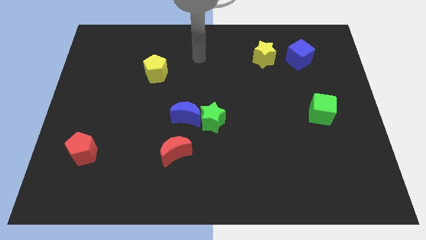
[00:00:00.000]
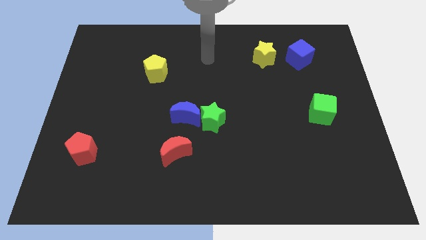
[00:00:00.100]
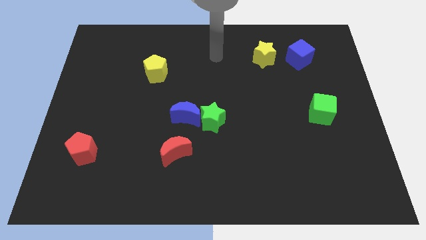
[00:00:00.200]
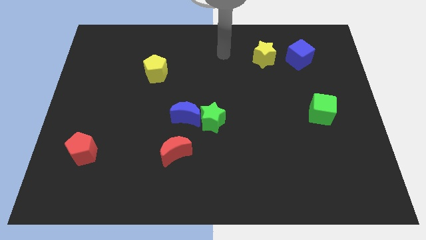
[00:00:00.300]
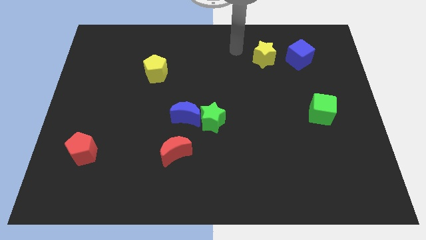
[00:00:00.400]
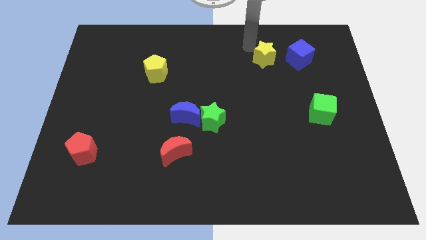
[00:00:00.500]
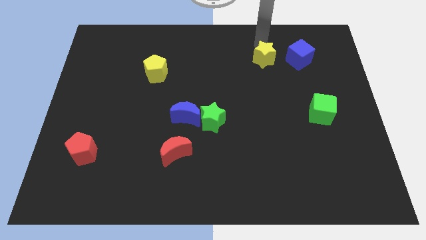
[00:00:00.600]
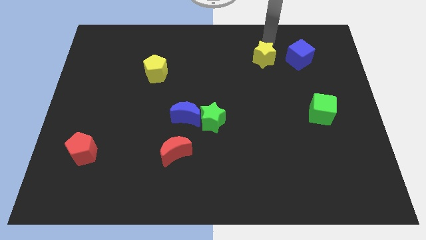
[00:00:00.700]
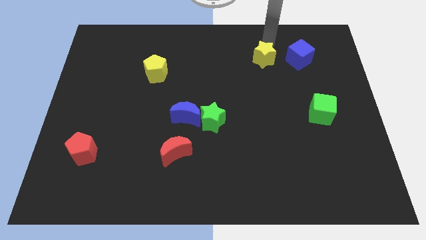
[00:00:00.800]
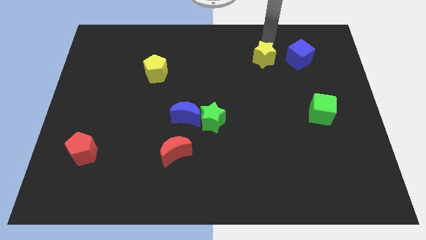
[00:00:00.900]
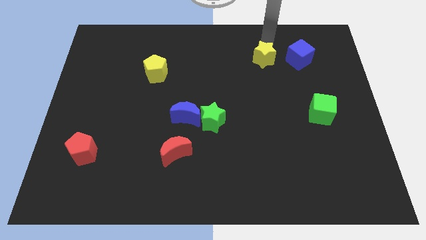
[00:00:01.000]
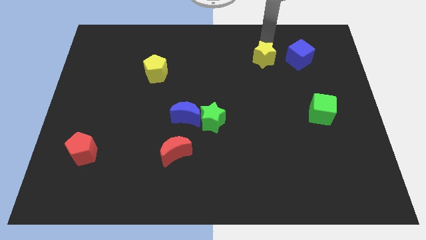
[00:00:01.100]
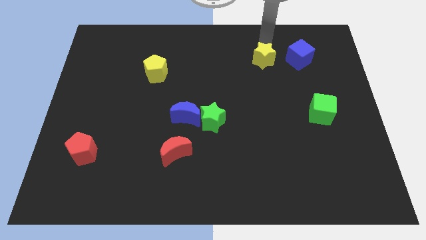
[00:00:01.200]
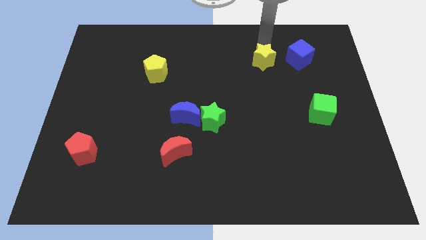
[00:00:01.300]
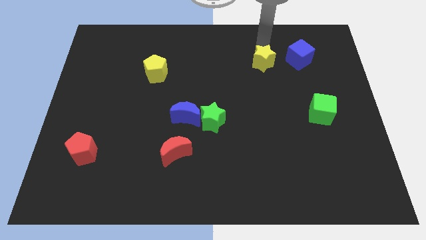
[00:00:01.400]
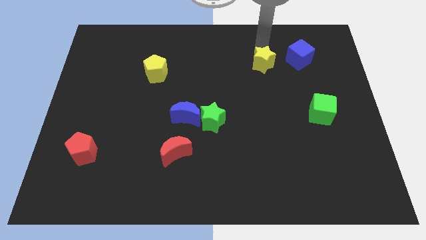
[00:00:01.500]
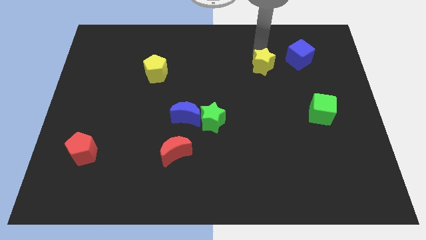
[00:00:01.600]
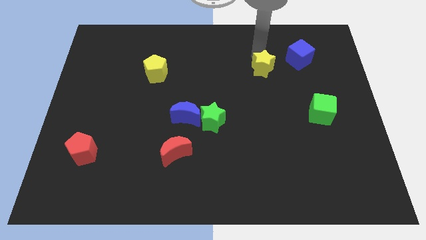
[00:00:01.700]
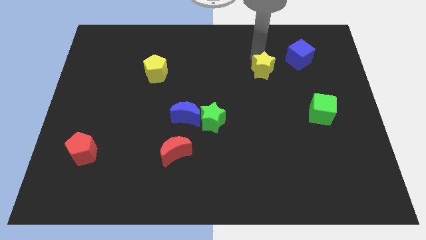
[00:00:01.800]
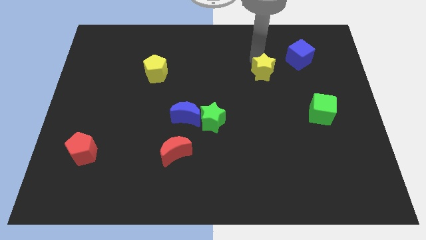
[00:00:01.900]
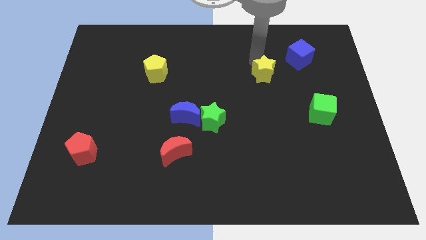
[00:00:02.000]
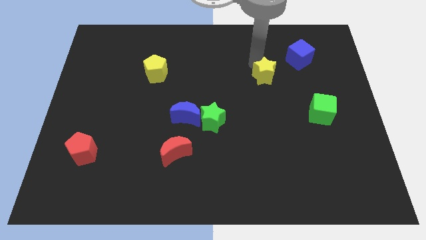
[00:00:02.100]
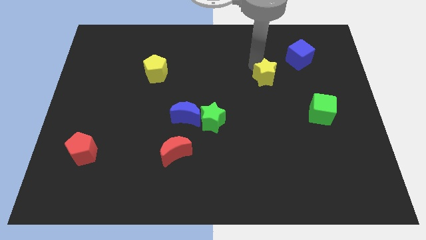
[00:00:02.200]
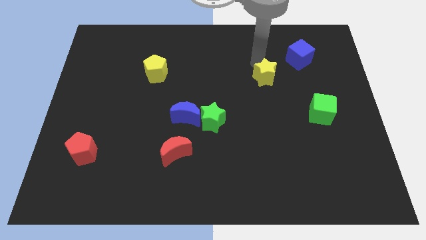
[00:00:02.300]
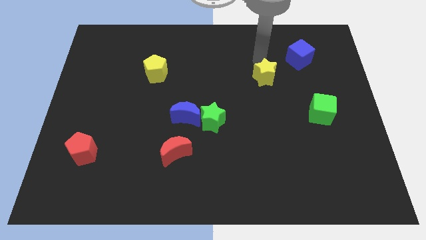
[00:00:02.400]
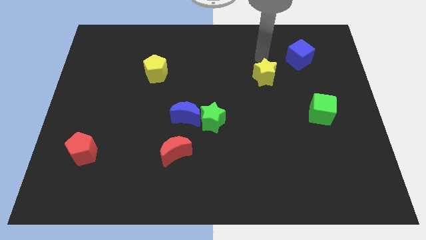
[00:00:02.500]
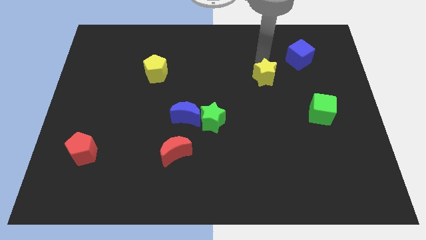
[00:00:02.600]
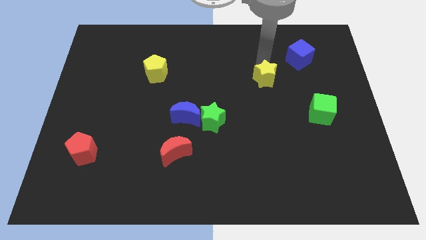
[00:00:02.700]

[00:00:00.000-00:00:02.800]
slide the yellow star down somewhat

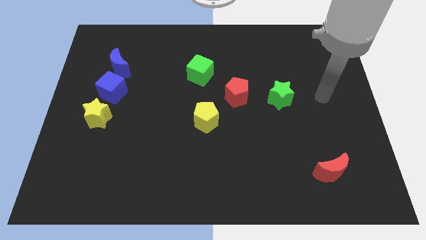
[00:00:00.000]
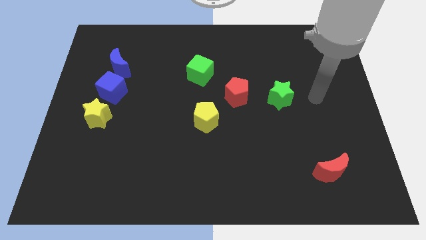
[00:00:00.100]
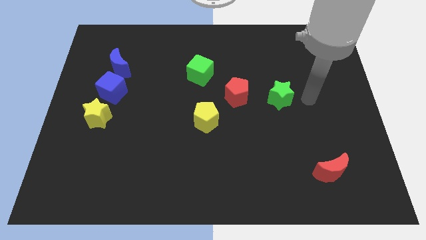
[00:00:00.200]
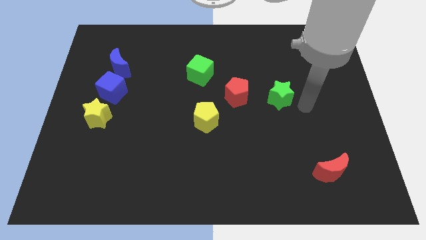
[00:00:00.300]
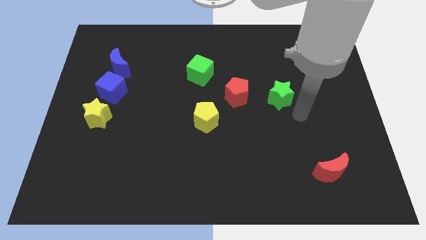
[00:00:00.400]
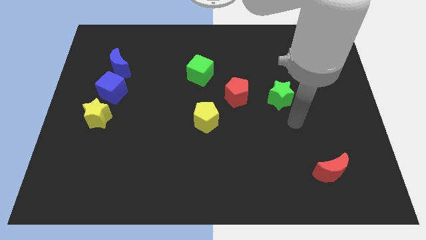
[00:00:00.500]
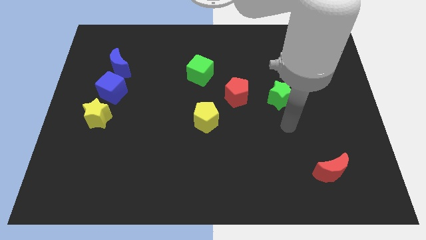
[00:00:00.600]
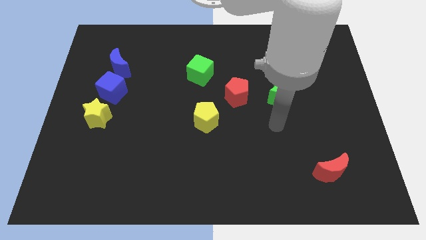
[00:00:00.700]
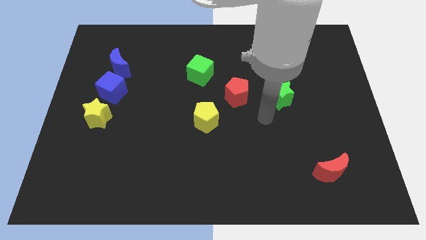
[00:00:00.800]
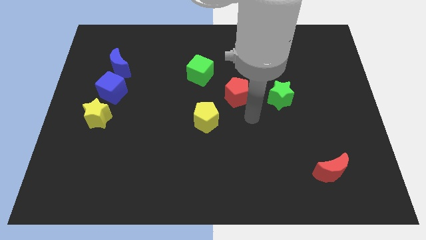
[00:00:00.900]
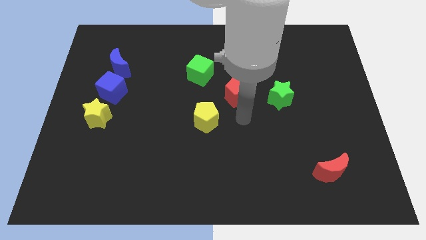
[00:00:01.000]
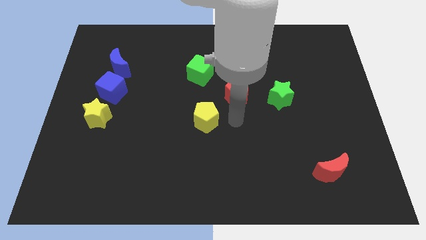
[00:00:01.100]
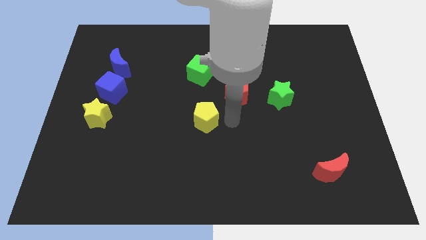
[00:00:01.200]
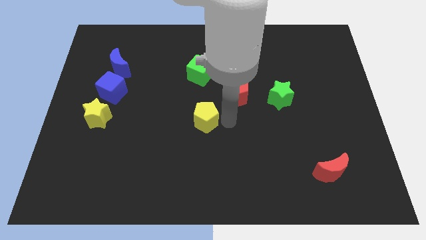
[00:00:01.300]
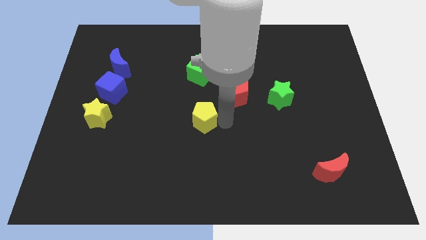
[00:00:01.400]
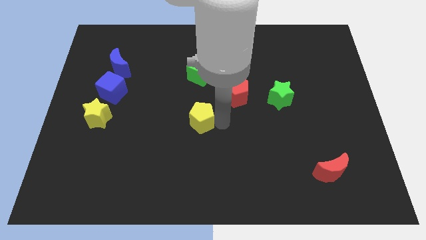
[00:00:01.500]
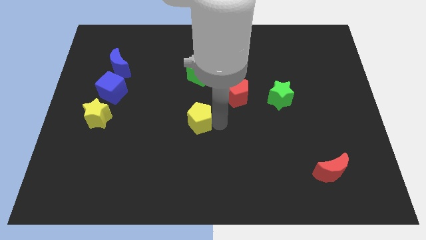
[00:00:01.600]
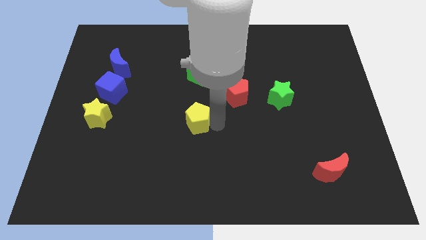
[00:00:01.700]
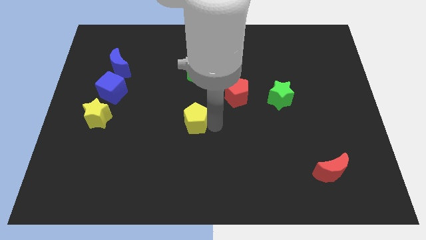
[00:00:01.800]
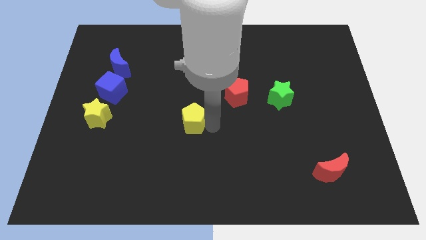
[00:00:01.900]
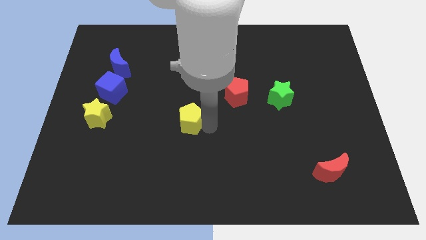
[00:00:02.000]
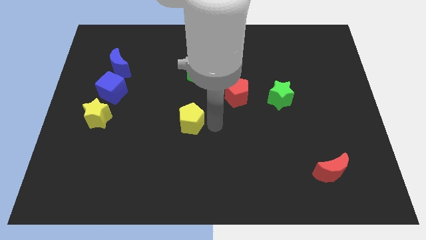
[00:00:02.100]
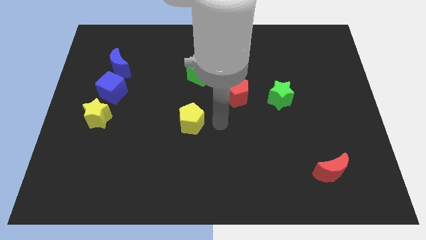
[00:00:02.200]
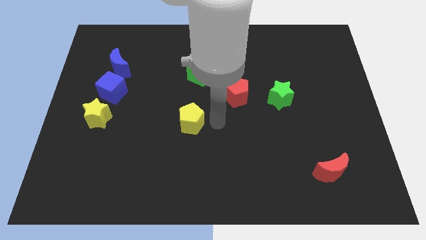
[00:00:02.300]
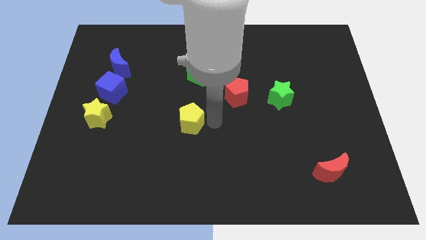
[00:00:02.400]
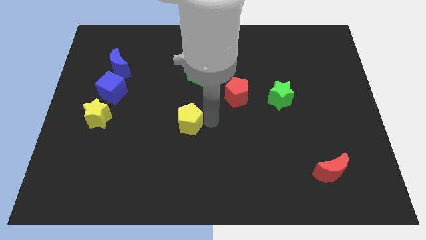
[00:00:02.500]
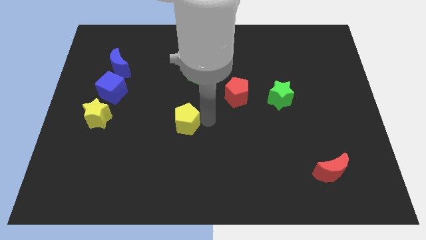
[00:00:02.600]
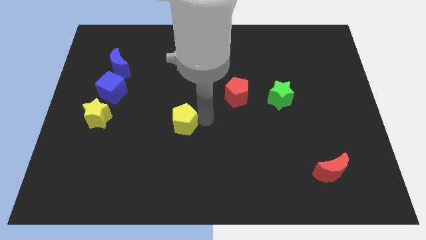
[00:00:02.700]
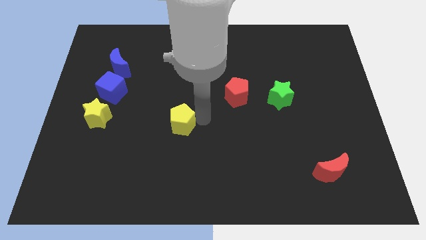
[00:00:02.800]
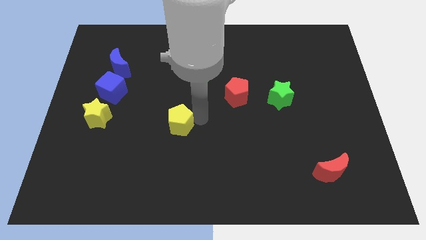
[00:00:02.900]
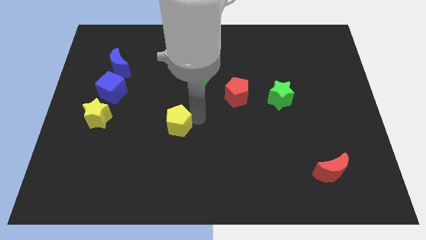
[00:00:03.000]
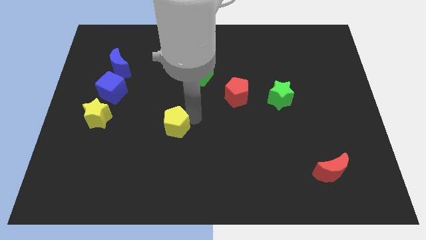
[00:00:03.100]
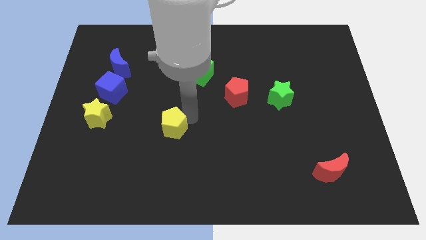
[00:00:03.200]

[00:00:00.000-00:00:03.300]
push the yellow pentagon a little bit left

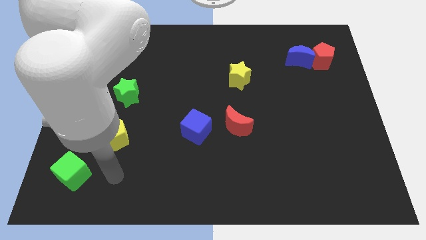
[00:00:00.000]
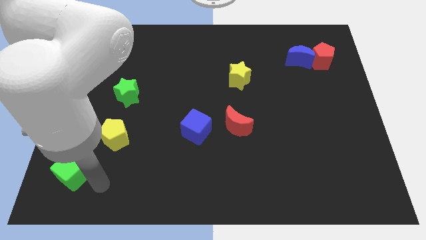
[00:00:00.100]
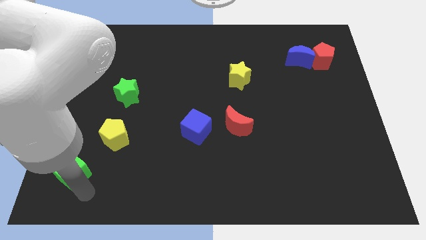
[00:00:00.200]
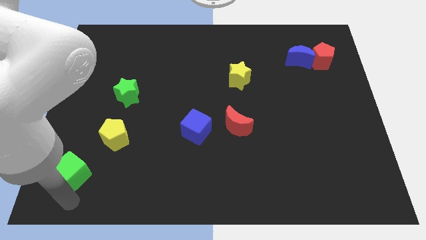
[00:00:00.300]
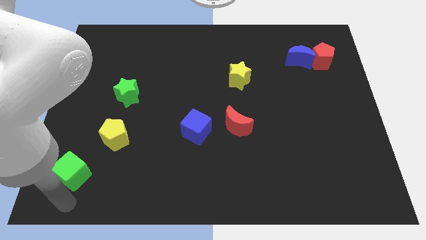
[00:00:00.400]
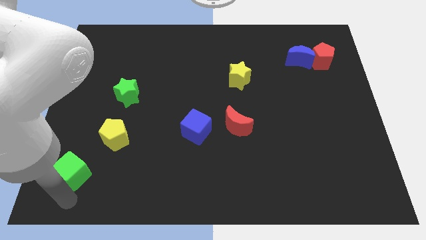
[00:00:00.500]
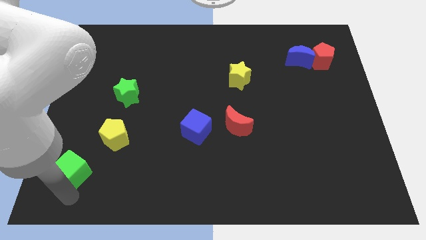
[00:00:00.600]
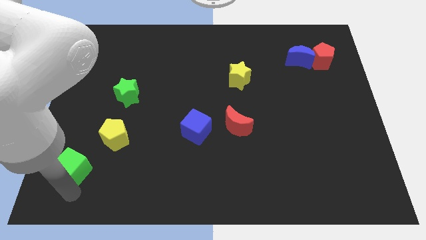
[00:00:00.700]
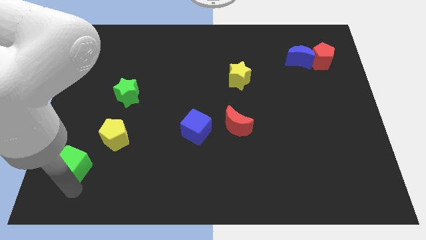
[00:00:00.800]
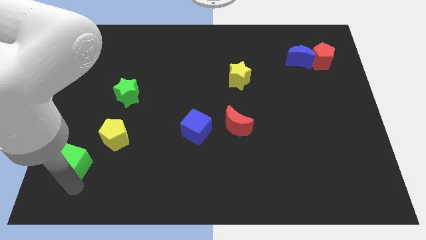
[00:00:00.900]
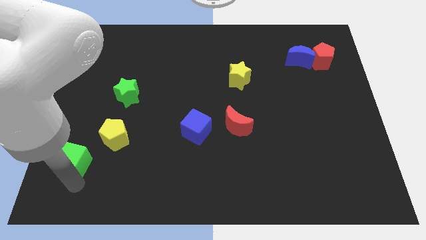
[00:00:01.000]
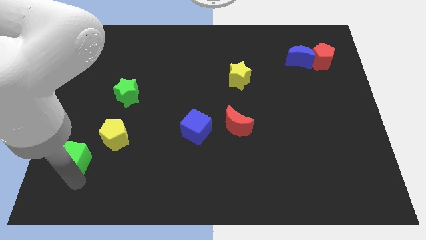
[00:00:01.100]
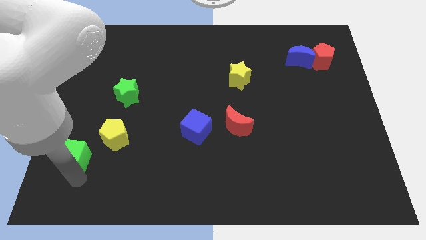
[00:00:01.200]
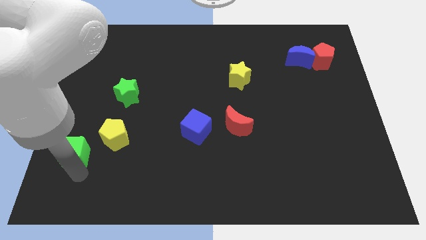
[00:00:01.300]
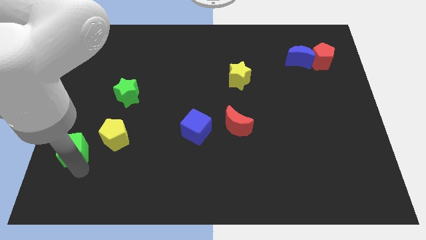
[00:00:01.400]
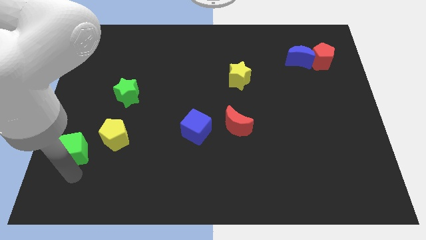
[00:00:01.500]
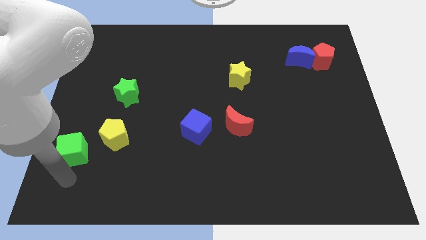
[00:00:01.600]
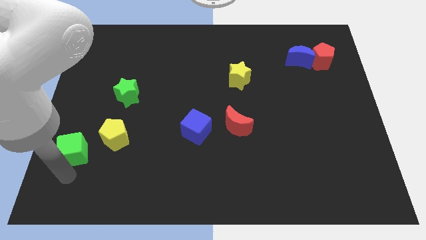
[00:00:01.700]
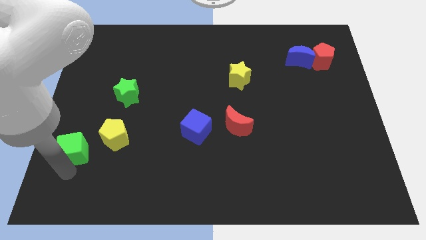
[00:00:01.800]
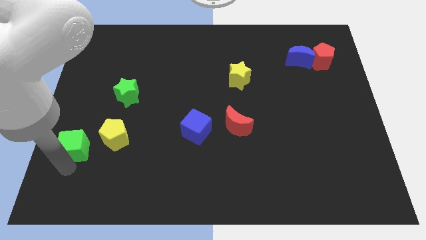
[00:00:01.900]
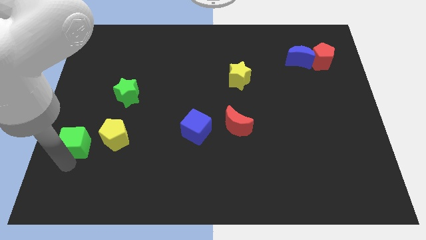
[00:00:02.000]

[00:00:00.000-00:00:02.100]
slide the green cube up somewhat

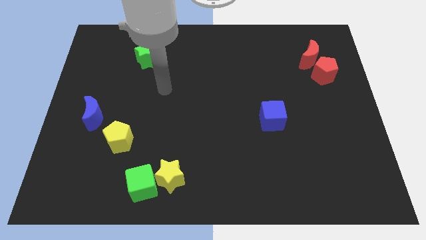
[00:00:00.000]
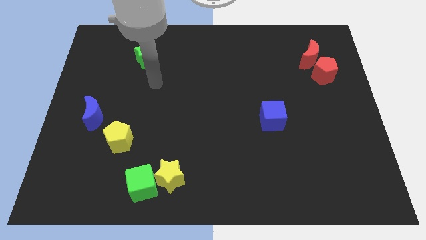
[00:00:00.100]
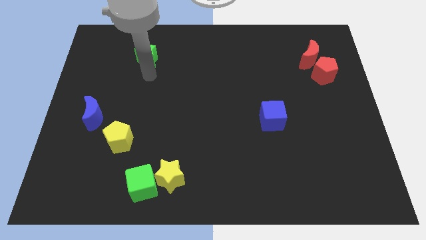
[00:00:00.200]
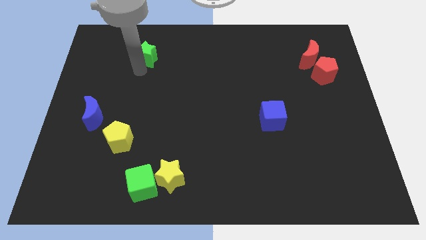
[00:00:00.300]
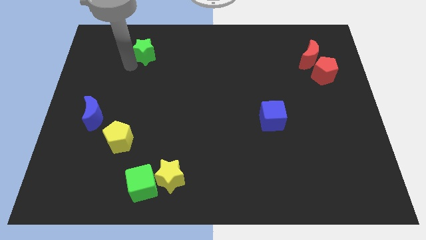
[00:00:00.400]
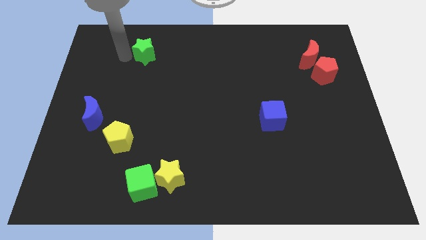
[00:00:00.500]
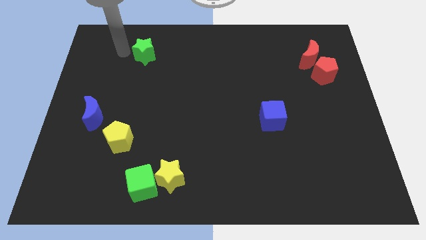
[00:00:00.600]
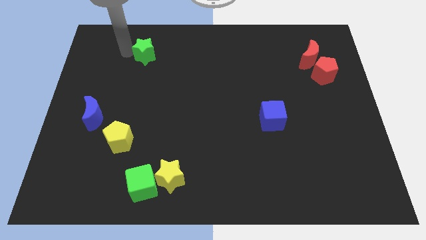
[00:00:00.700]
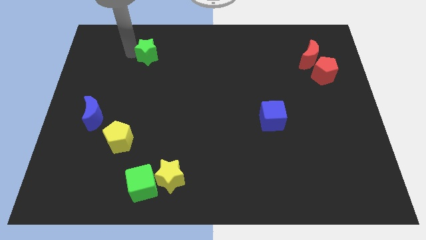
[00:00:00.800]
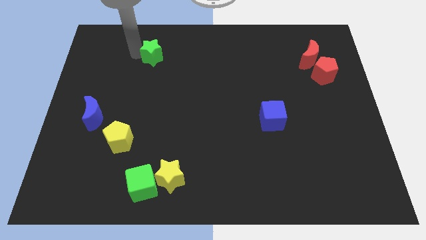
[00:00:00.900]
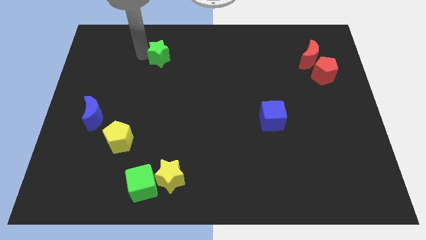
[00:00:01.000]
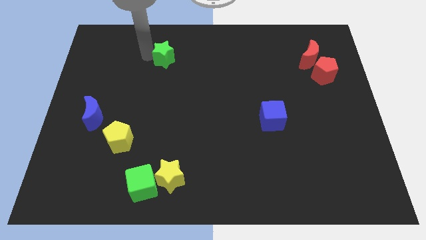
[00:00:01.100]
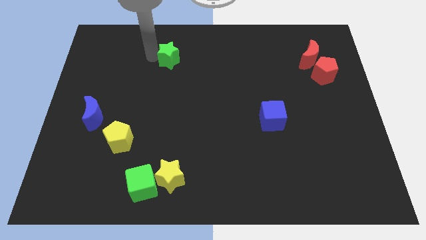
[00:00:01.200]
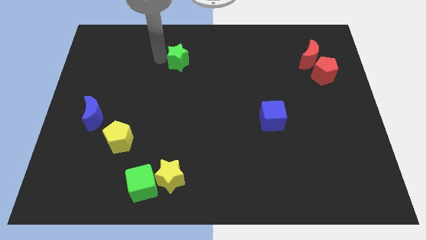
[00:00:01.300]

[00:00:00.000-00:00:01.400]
push the green star right a bit
